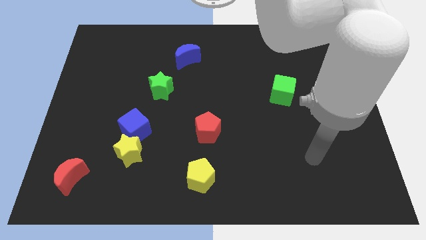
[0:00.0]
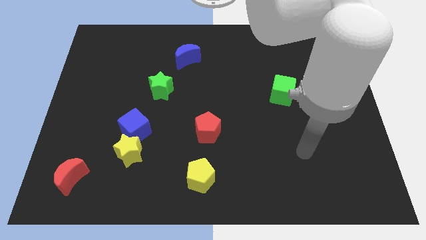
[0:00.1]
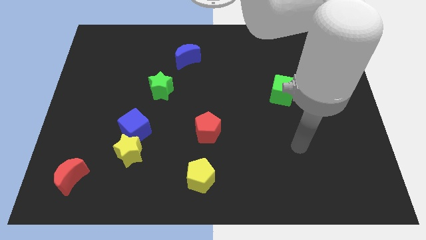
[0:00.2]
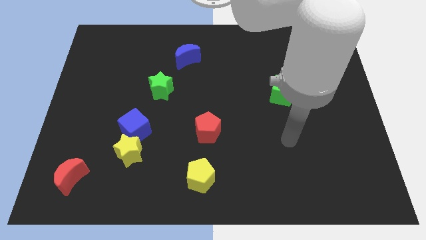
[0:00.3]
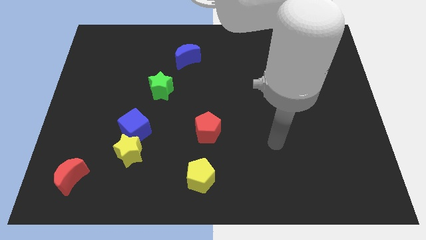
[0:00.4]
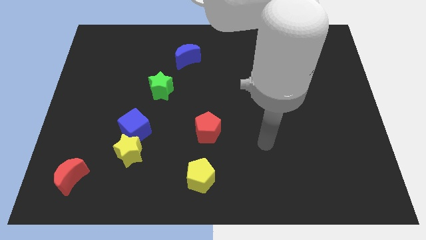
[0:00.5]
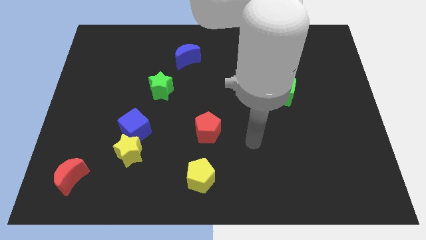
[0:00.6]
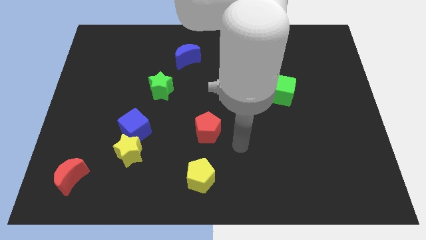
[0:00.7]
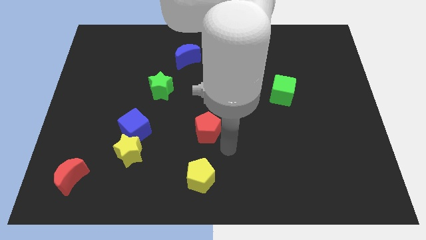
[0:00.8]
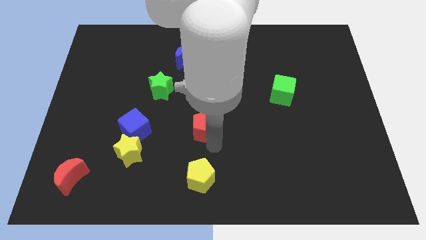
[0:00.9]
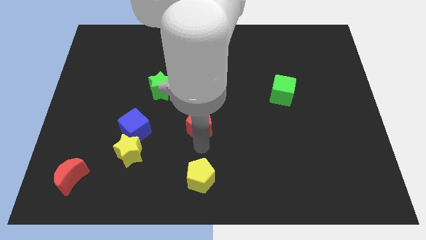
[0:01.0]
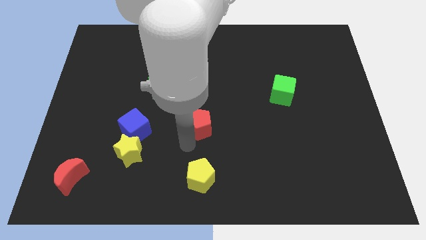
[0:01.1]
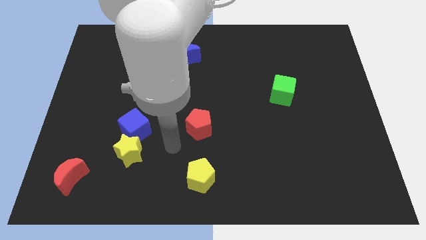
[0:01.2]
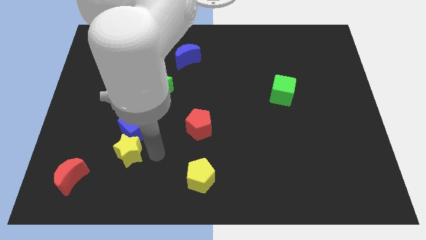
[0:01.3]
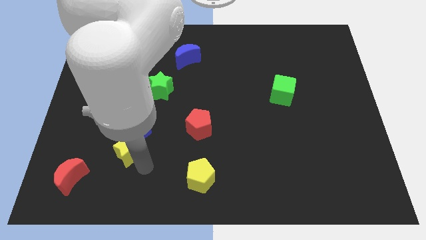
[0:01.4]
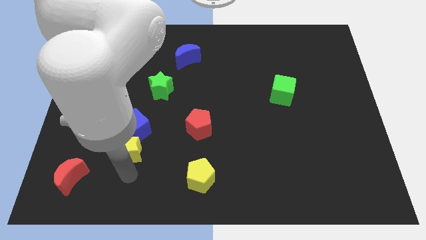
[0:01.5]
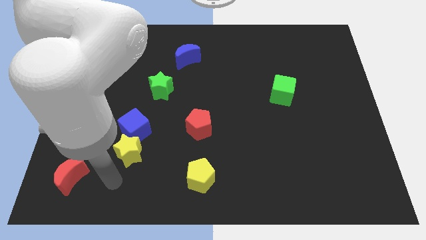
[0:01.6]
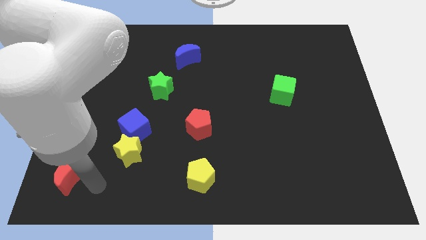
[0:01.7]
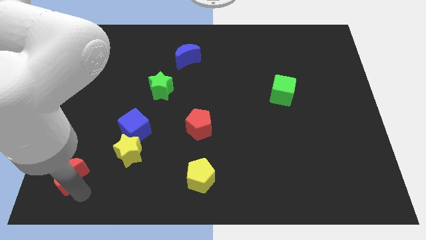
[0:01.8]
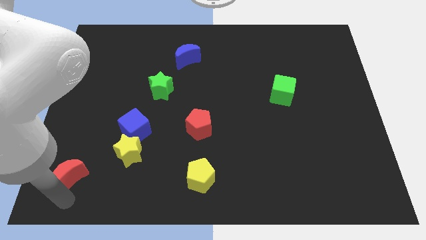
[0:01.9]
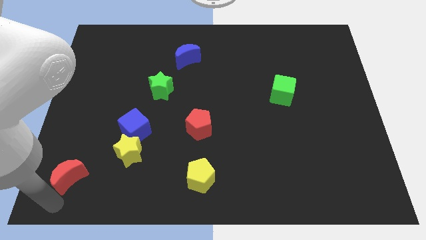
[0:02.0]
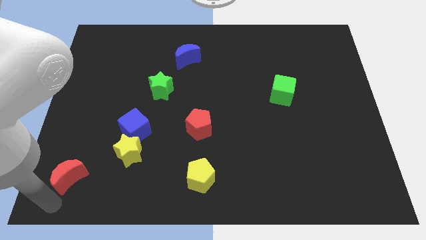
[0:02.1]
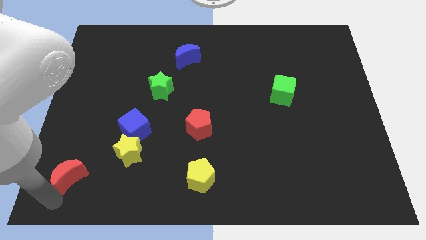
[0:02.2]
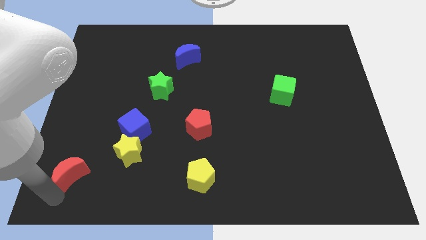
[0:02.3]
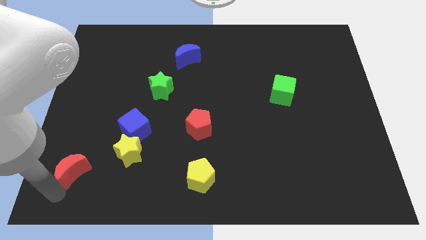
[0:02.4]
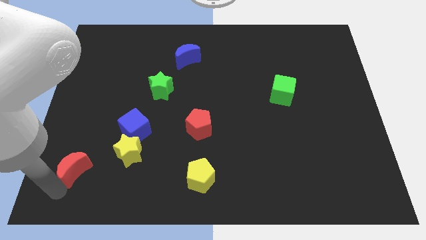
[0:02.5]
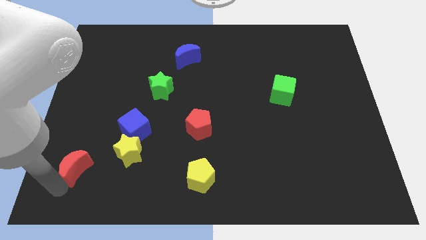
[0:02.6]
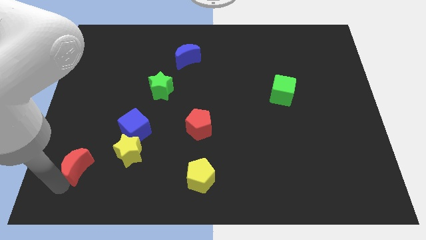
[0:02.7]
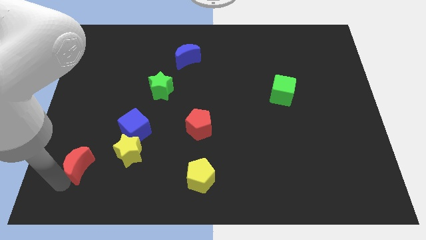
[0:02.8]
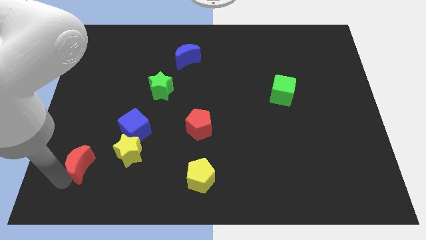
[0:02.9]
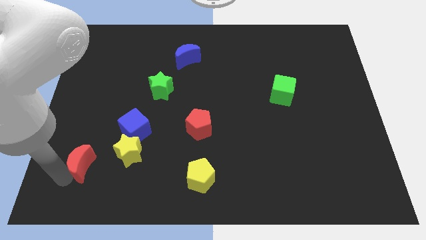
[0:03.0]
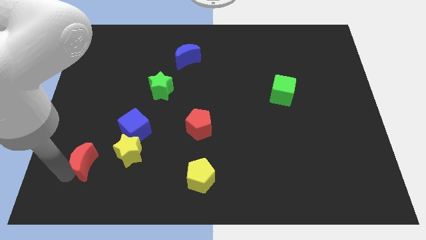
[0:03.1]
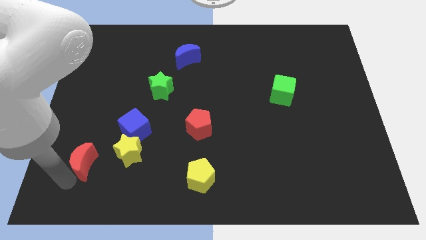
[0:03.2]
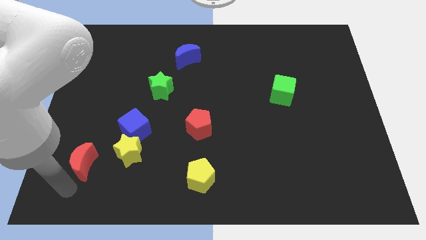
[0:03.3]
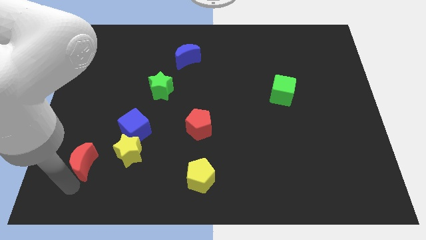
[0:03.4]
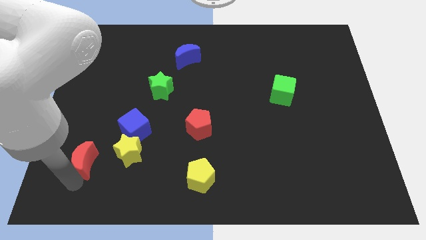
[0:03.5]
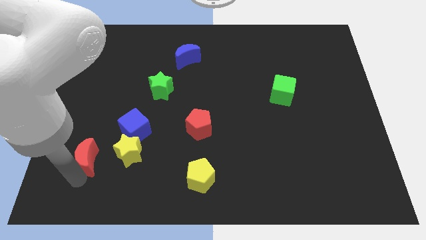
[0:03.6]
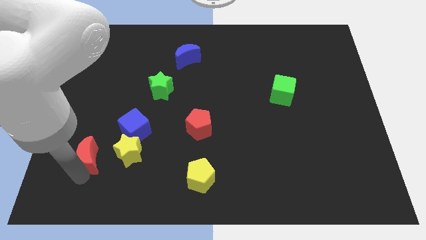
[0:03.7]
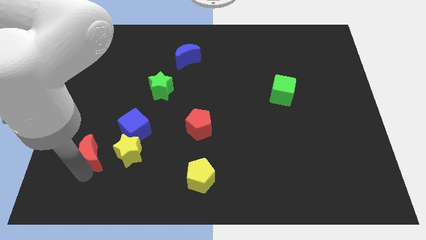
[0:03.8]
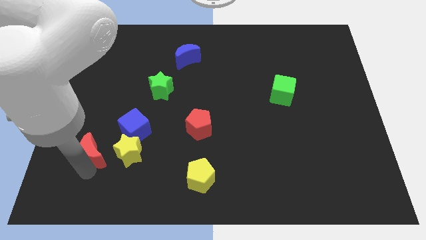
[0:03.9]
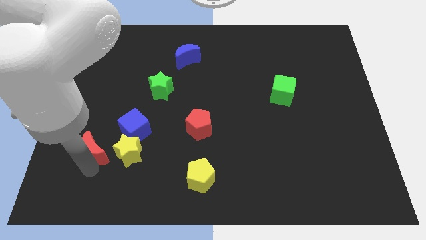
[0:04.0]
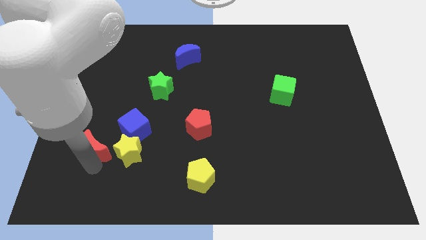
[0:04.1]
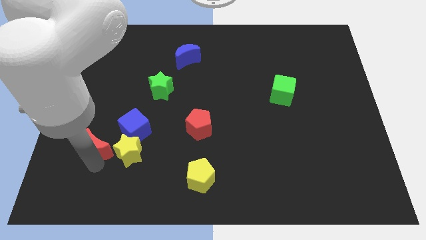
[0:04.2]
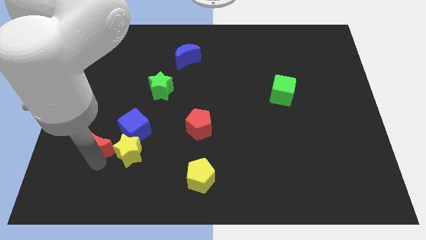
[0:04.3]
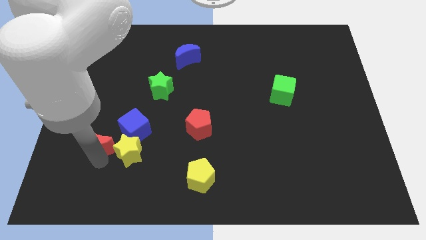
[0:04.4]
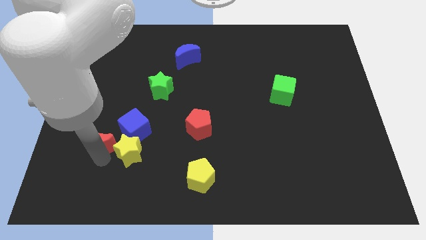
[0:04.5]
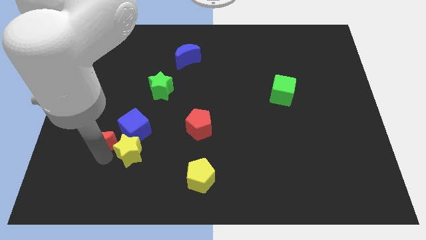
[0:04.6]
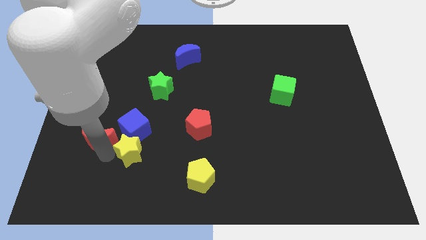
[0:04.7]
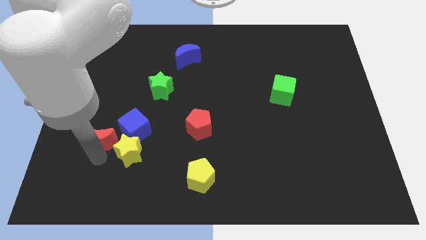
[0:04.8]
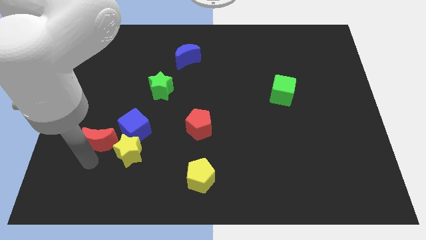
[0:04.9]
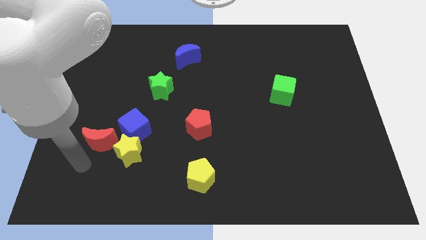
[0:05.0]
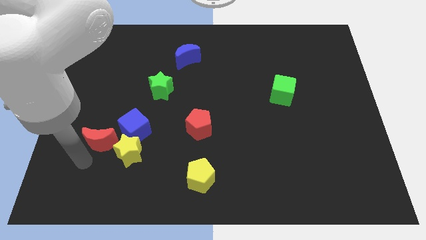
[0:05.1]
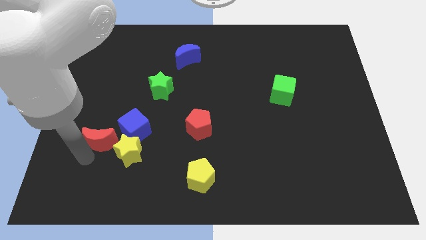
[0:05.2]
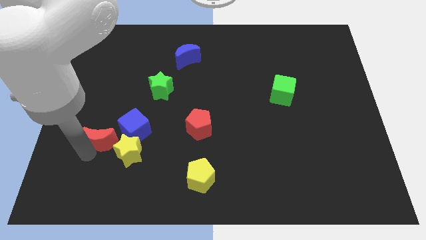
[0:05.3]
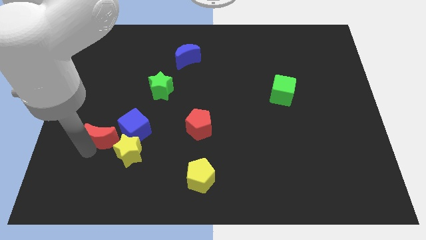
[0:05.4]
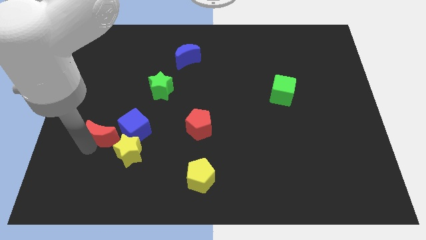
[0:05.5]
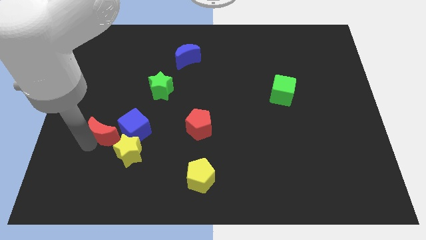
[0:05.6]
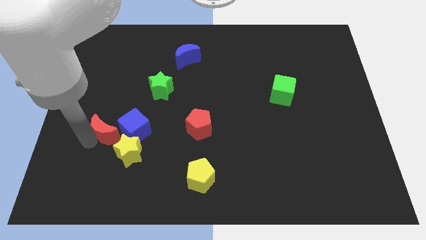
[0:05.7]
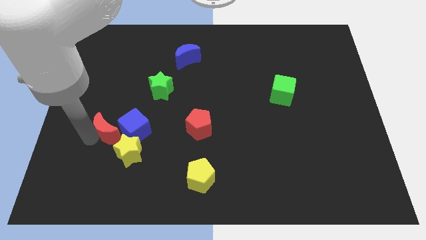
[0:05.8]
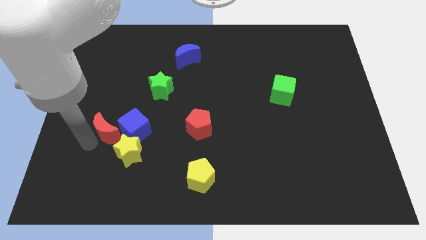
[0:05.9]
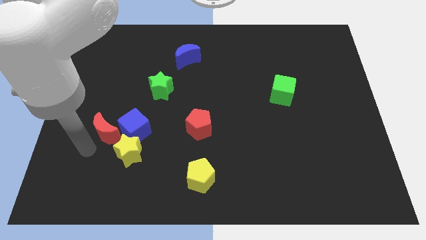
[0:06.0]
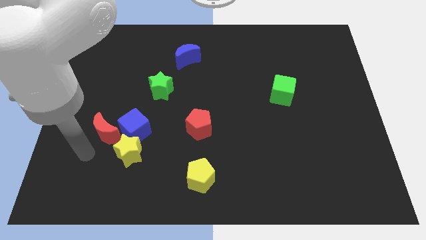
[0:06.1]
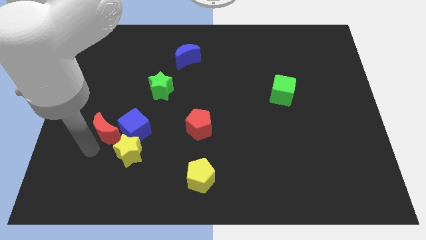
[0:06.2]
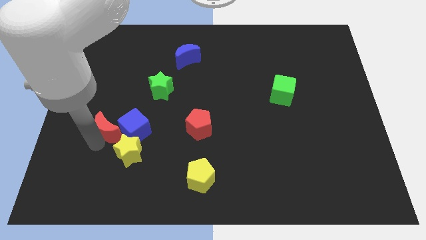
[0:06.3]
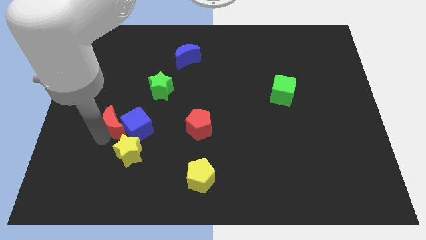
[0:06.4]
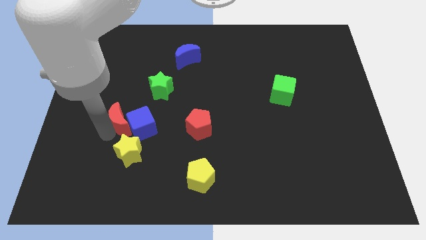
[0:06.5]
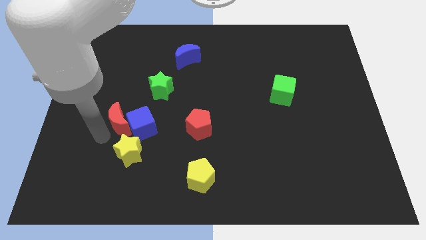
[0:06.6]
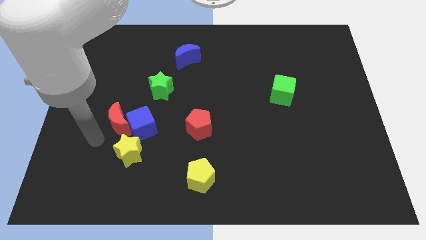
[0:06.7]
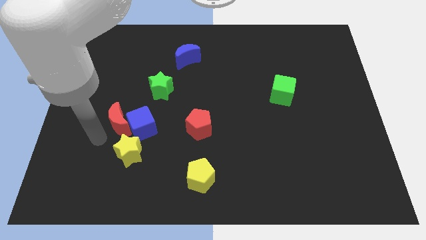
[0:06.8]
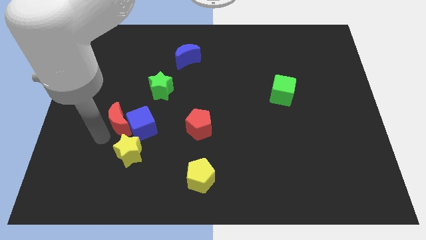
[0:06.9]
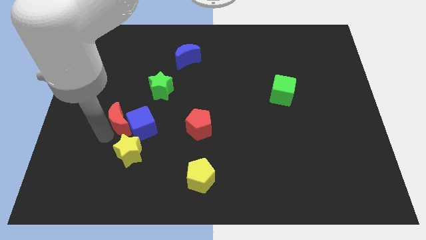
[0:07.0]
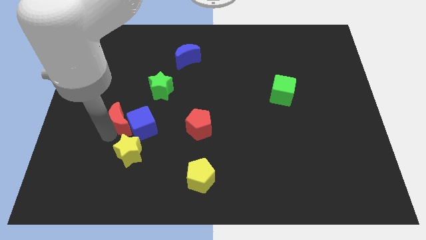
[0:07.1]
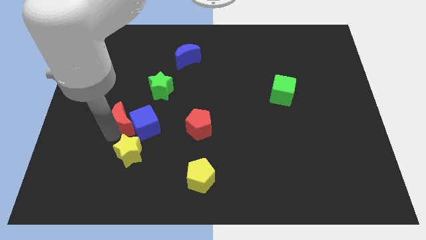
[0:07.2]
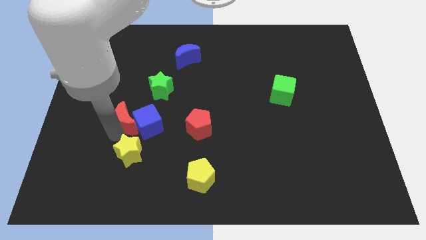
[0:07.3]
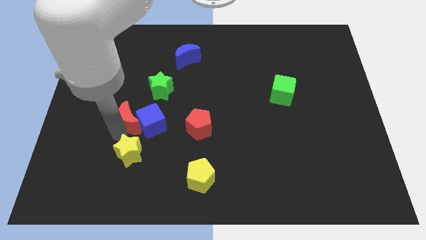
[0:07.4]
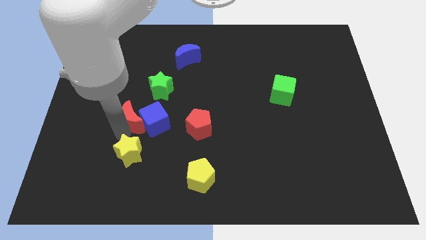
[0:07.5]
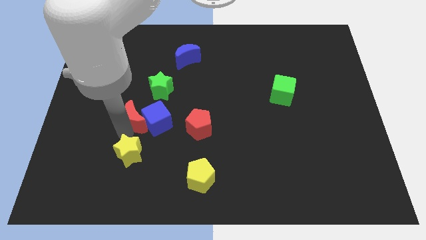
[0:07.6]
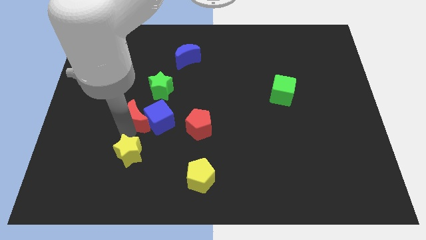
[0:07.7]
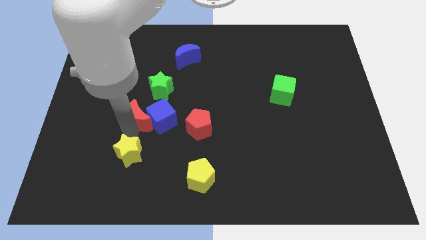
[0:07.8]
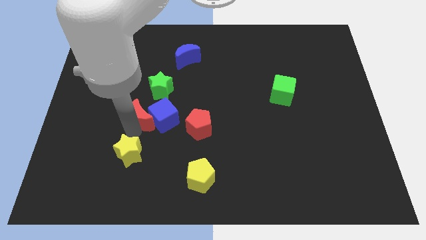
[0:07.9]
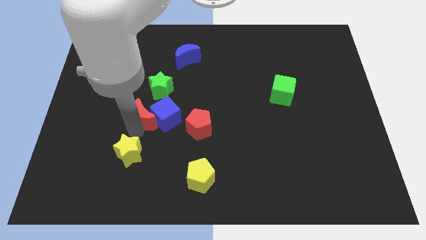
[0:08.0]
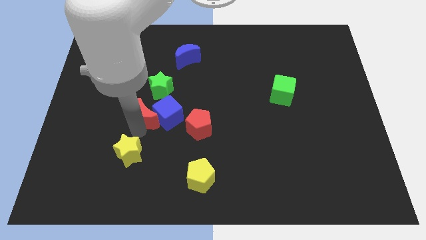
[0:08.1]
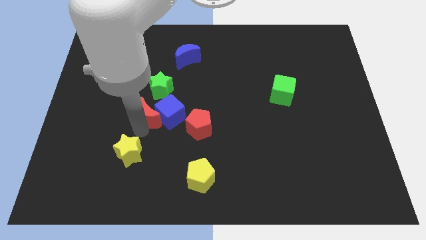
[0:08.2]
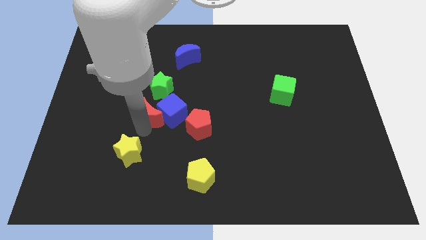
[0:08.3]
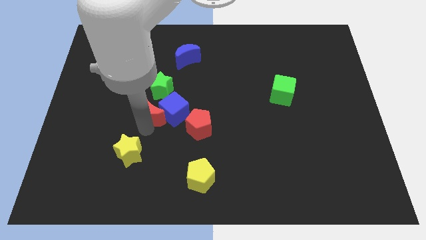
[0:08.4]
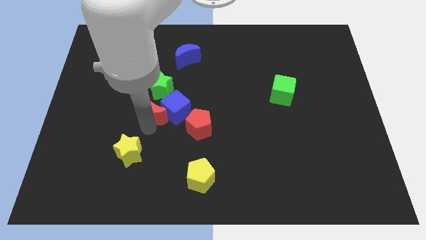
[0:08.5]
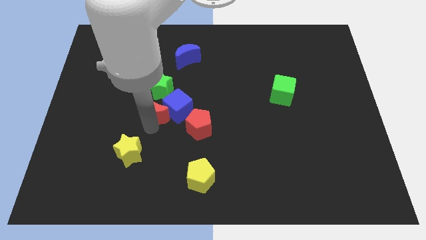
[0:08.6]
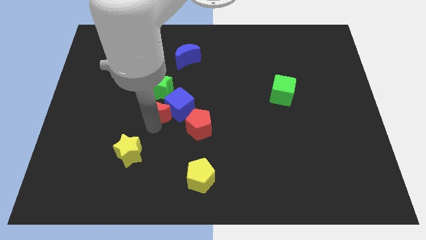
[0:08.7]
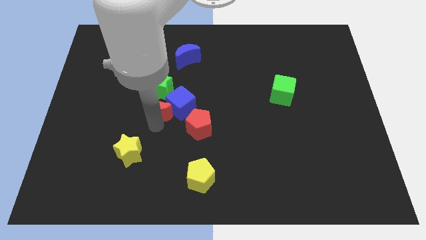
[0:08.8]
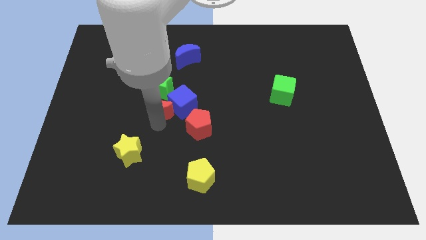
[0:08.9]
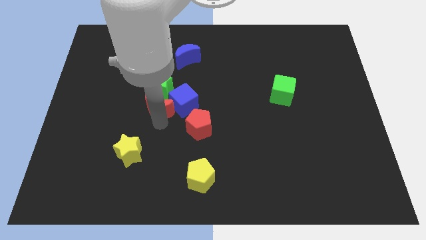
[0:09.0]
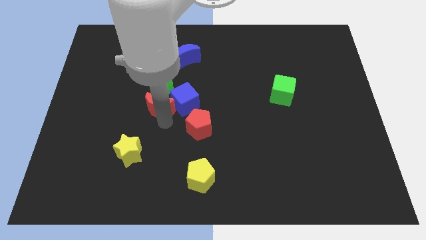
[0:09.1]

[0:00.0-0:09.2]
slide the red moon close to the green star
